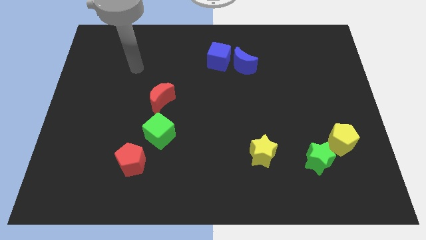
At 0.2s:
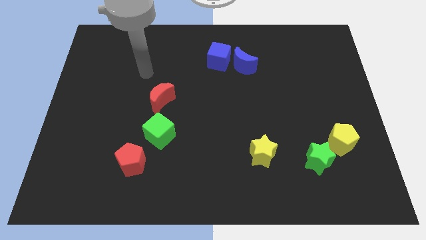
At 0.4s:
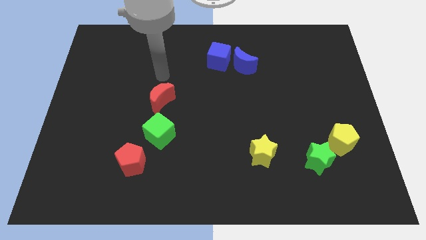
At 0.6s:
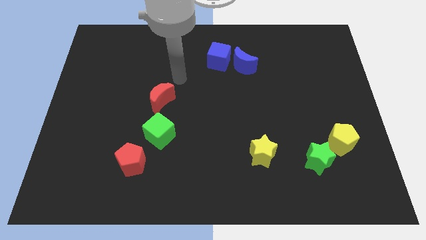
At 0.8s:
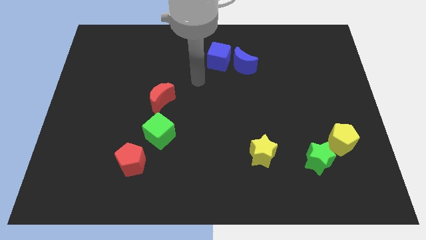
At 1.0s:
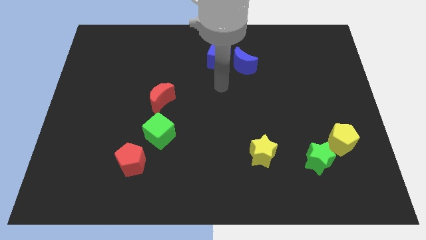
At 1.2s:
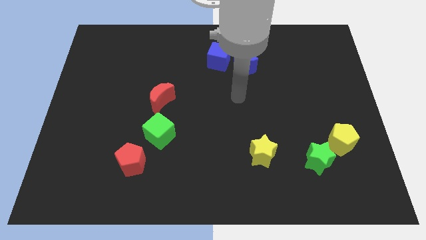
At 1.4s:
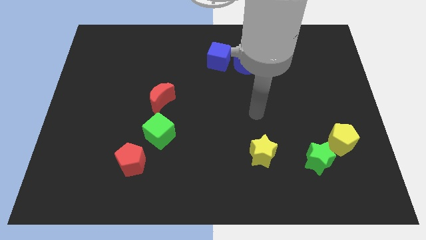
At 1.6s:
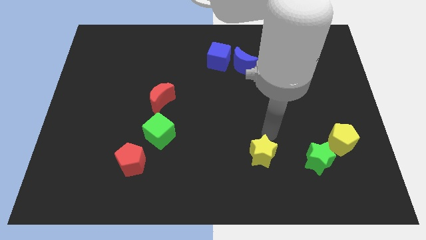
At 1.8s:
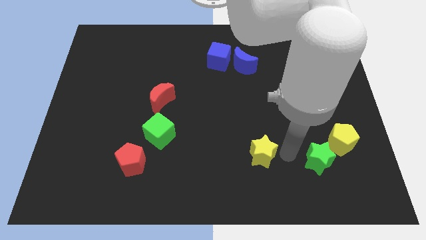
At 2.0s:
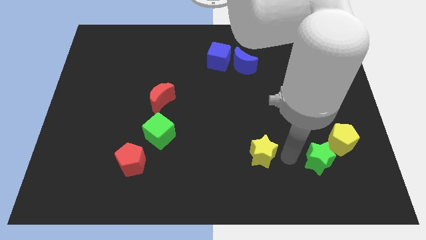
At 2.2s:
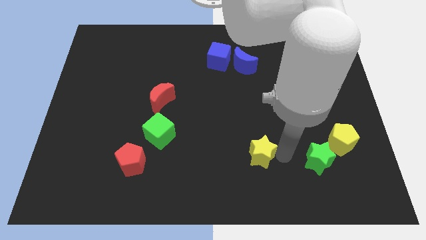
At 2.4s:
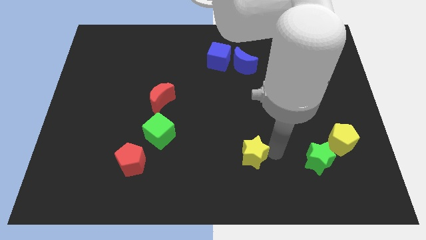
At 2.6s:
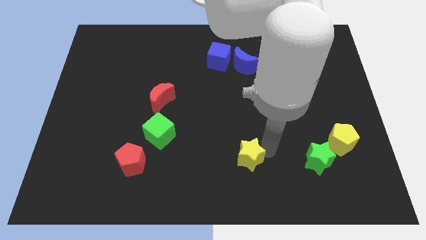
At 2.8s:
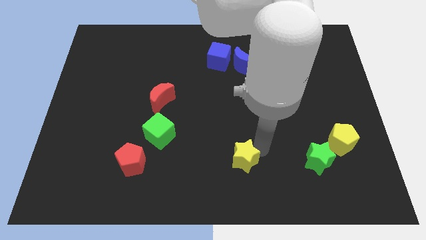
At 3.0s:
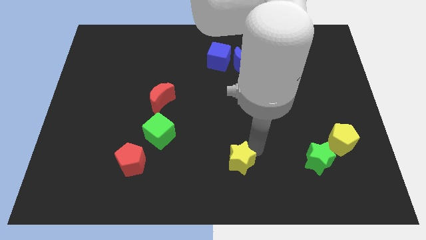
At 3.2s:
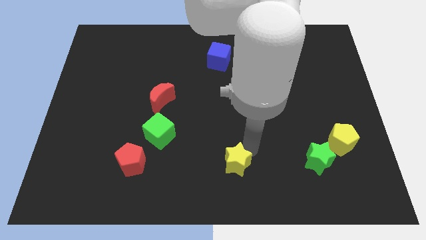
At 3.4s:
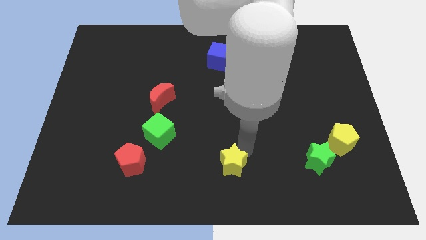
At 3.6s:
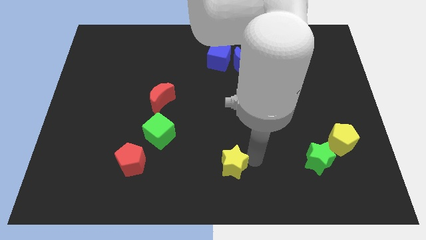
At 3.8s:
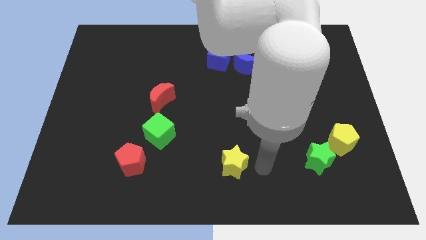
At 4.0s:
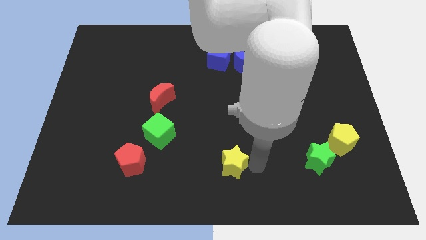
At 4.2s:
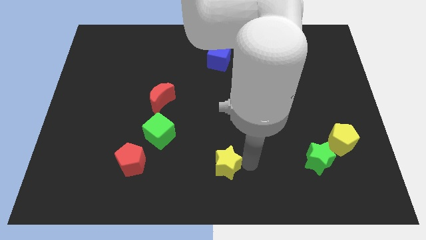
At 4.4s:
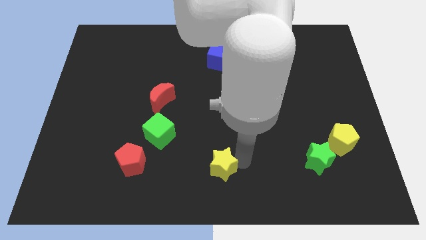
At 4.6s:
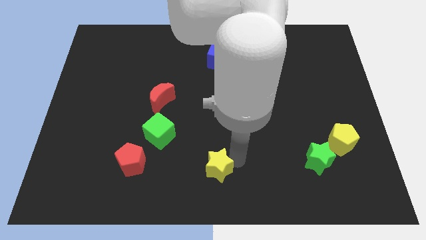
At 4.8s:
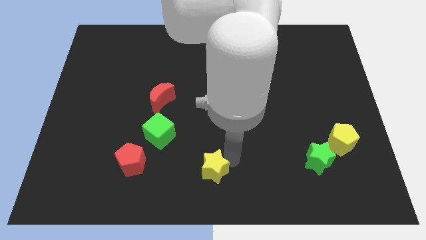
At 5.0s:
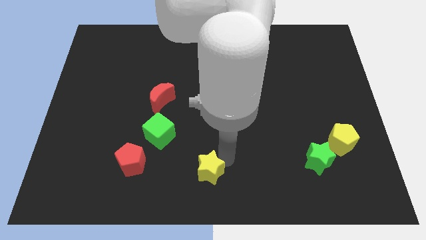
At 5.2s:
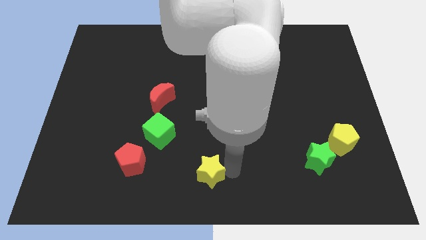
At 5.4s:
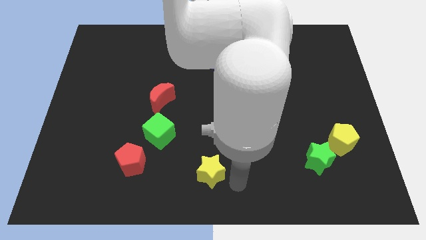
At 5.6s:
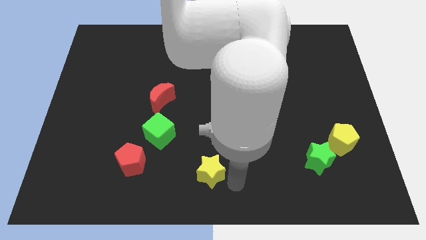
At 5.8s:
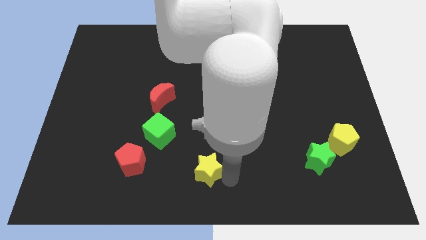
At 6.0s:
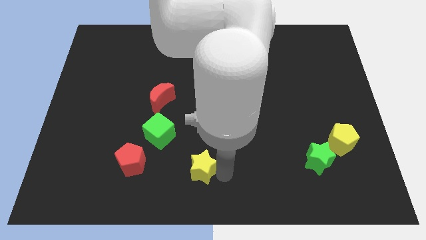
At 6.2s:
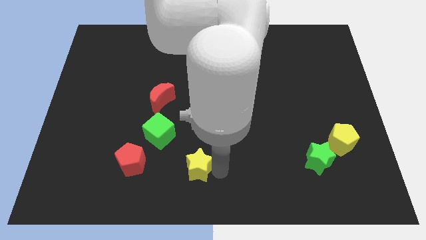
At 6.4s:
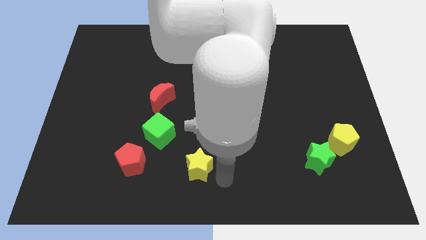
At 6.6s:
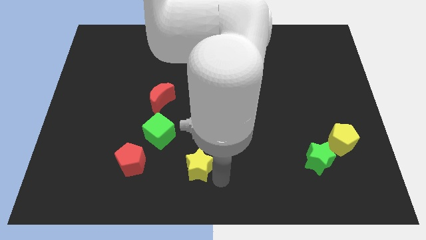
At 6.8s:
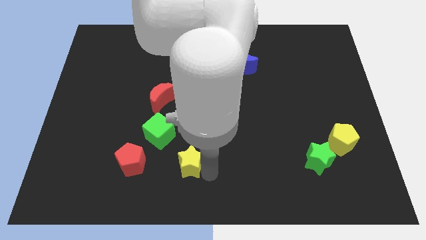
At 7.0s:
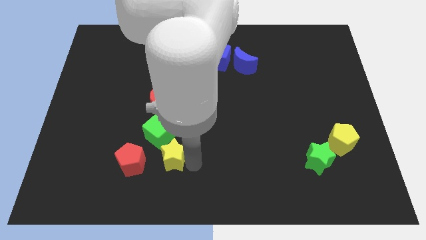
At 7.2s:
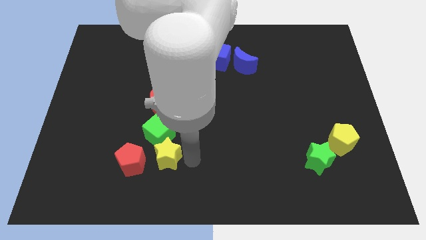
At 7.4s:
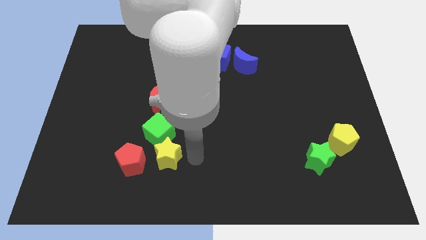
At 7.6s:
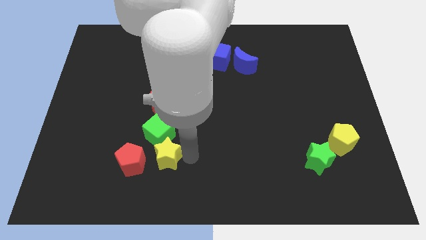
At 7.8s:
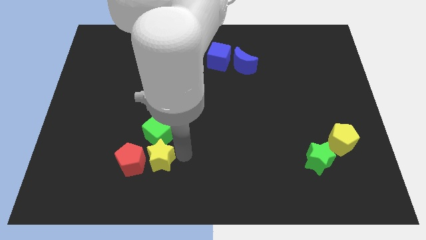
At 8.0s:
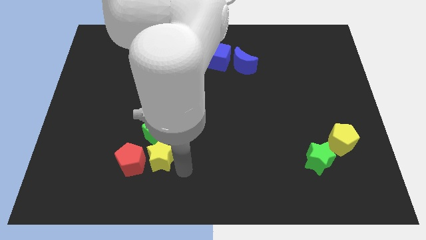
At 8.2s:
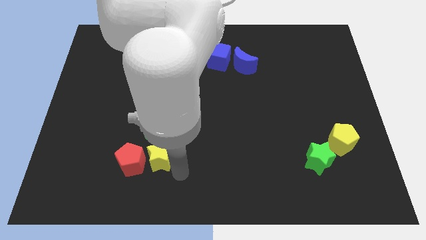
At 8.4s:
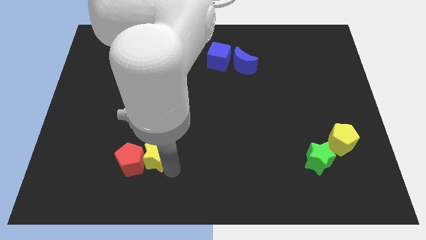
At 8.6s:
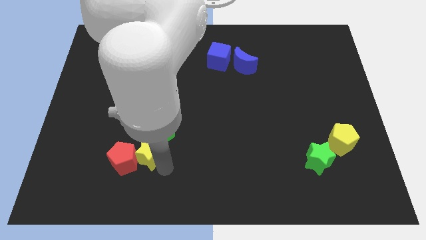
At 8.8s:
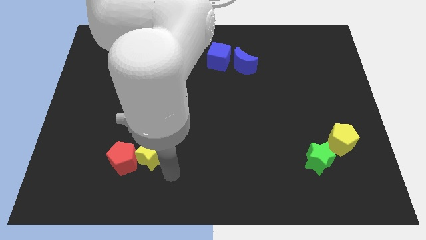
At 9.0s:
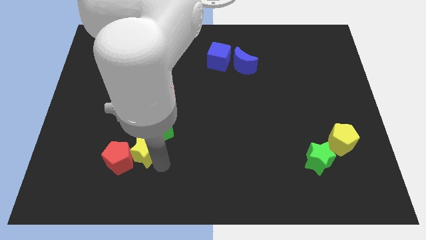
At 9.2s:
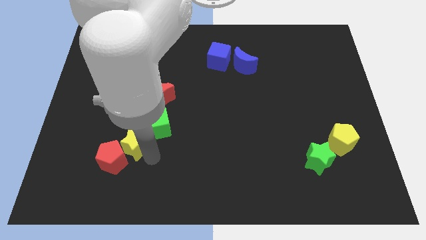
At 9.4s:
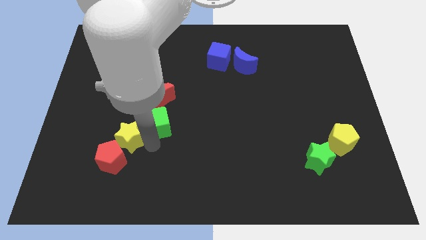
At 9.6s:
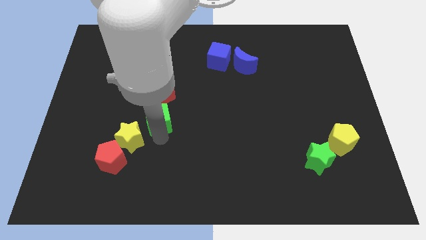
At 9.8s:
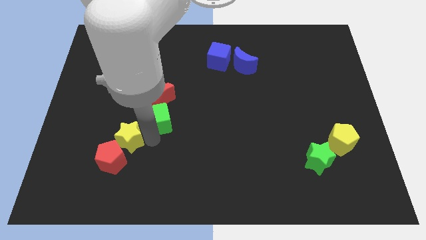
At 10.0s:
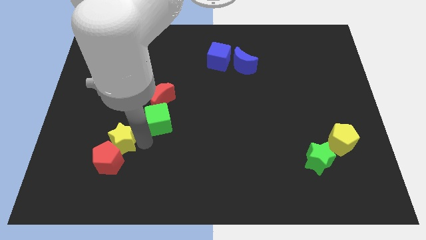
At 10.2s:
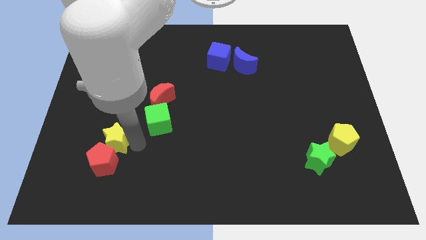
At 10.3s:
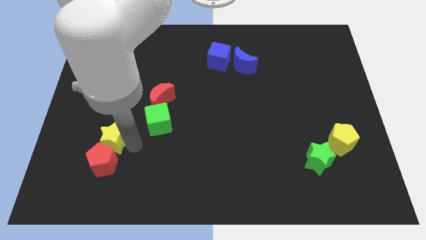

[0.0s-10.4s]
put the yellow star diagonally up and to the left of the red pentagon

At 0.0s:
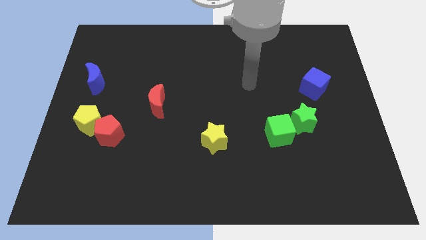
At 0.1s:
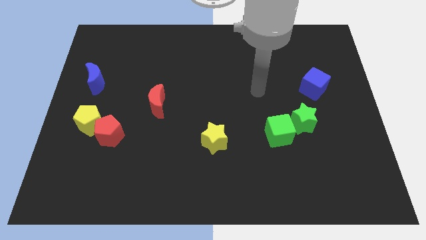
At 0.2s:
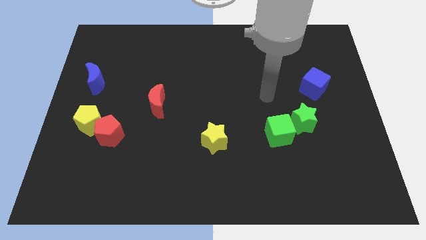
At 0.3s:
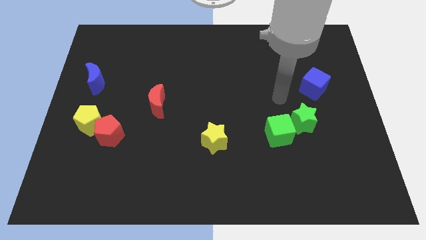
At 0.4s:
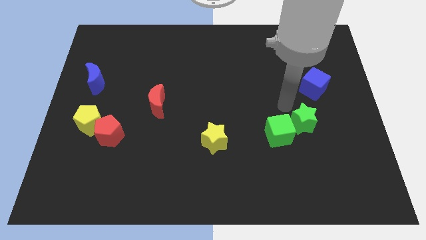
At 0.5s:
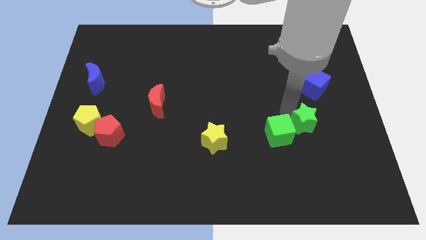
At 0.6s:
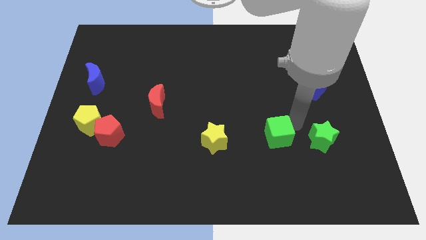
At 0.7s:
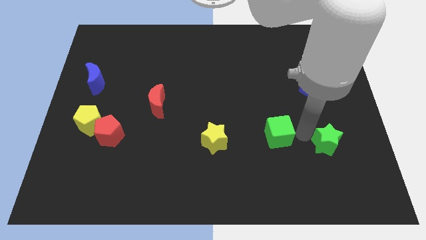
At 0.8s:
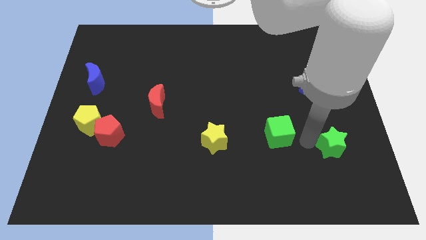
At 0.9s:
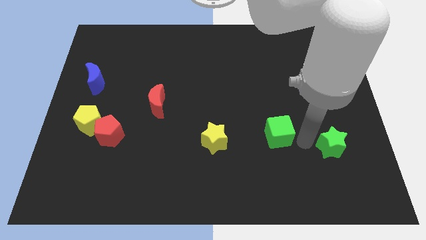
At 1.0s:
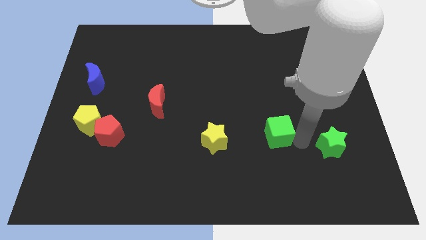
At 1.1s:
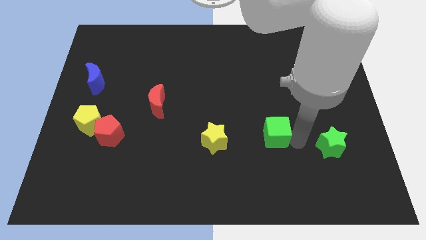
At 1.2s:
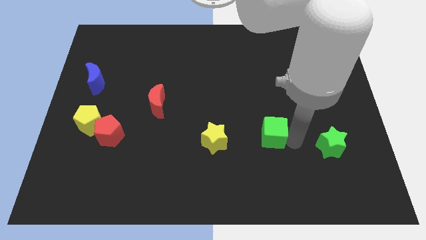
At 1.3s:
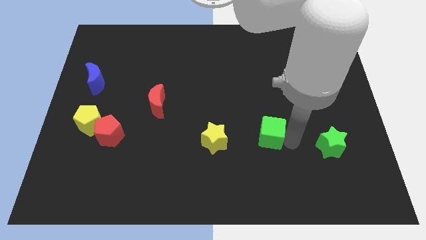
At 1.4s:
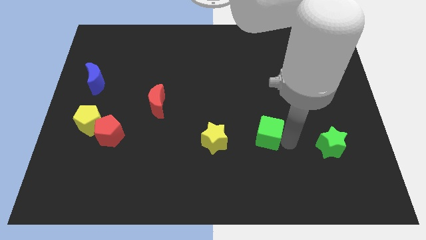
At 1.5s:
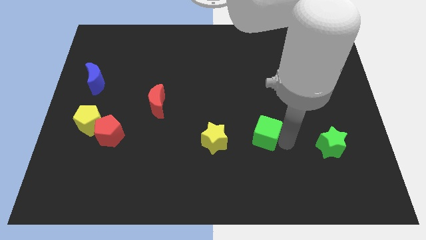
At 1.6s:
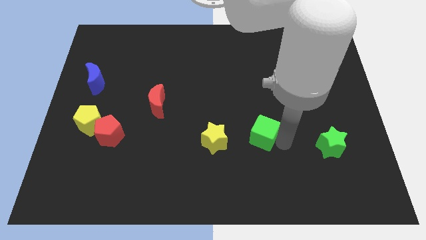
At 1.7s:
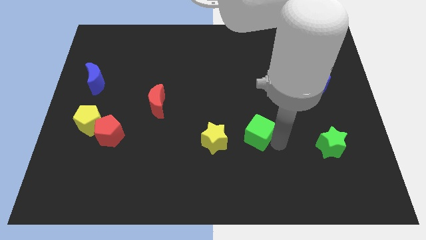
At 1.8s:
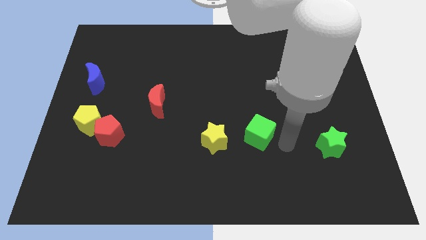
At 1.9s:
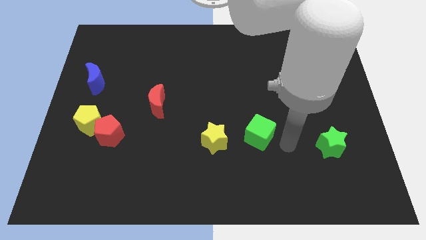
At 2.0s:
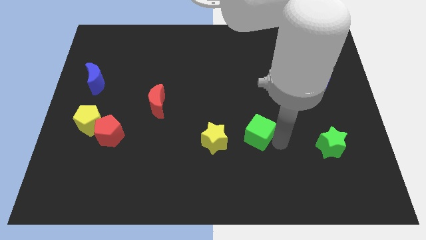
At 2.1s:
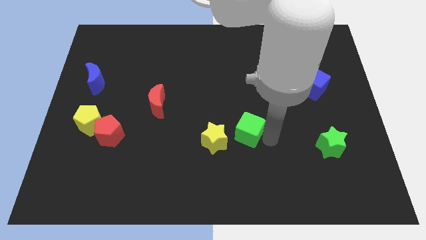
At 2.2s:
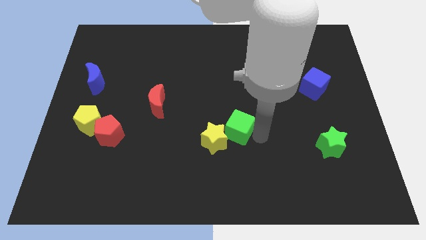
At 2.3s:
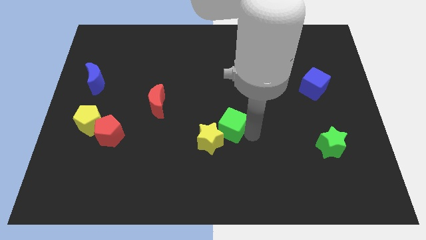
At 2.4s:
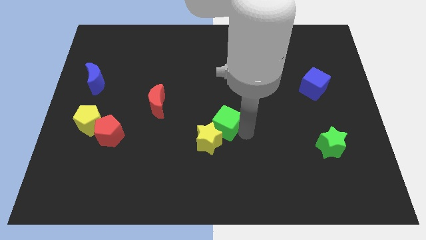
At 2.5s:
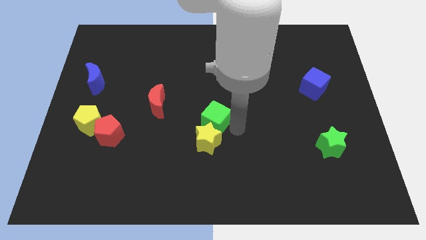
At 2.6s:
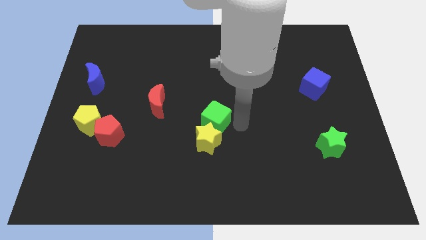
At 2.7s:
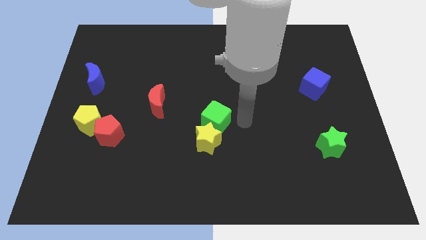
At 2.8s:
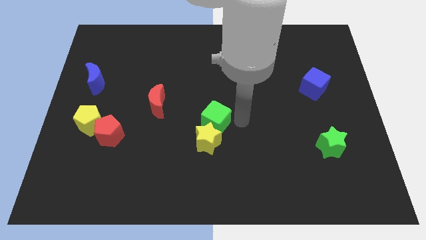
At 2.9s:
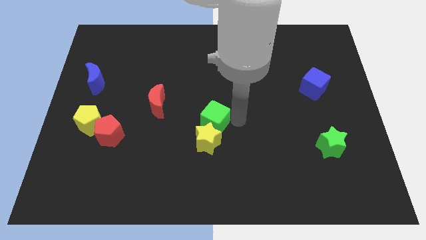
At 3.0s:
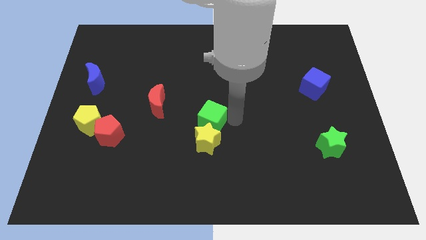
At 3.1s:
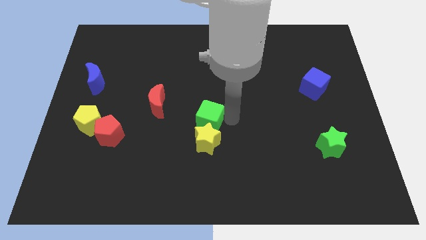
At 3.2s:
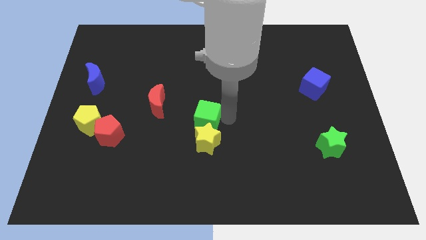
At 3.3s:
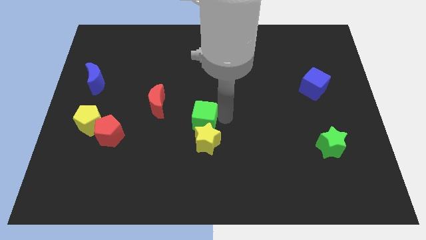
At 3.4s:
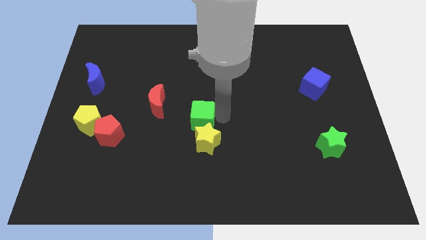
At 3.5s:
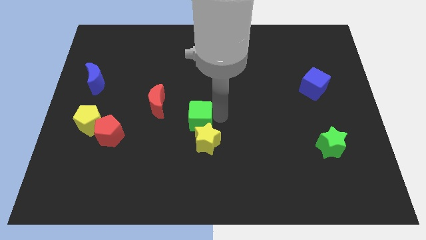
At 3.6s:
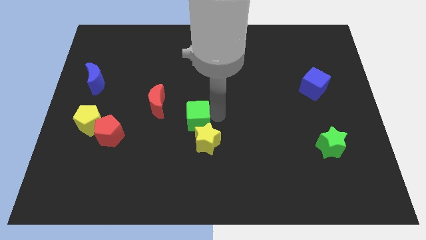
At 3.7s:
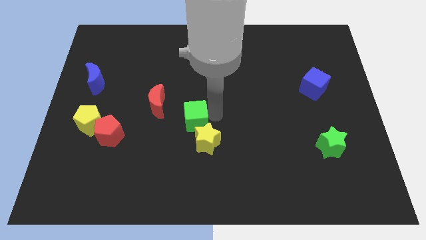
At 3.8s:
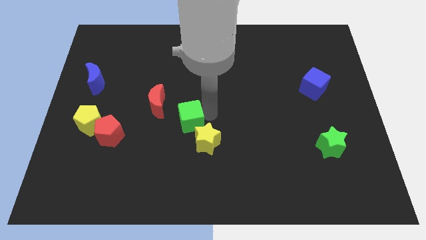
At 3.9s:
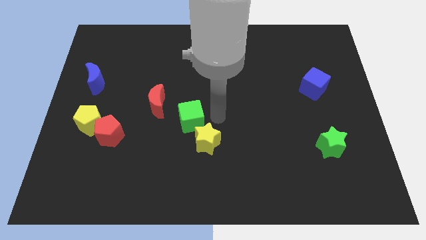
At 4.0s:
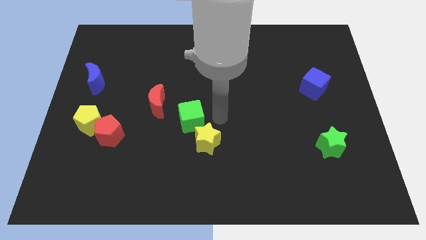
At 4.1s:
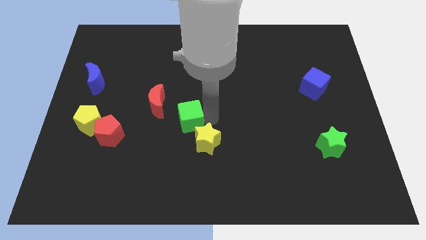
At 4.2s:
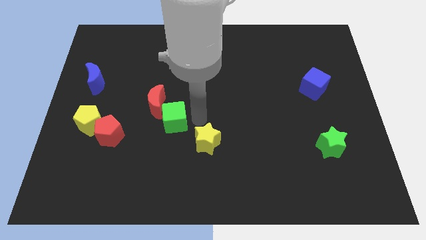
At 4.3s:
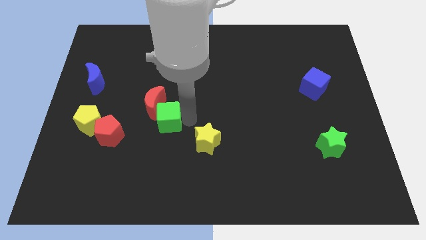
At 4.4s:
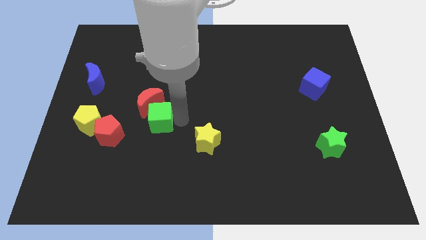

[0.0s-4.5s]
move the green cube just right of the yellow pentagon
